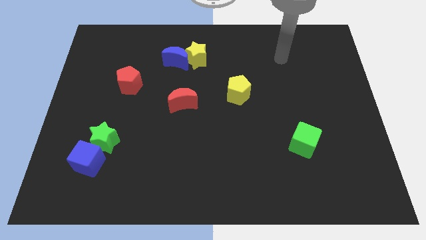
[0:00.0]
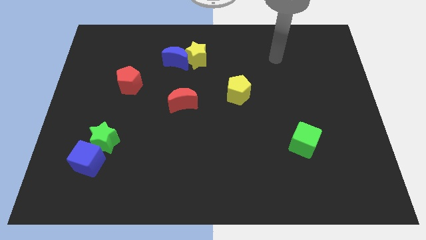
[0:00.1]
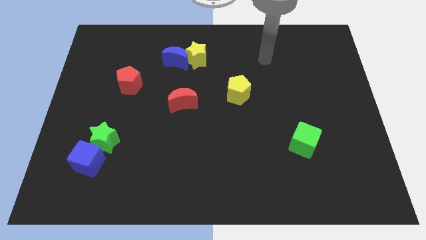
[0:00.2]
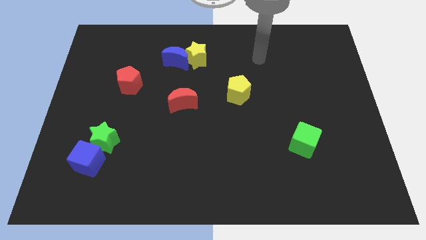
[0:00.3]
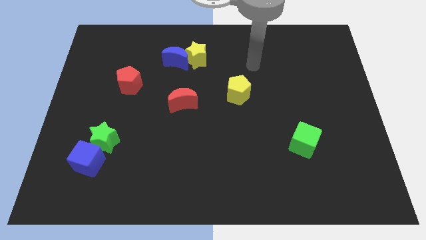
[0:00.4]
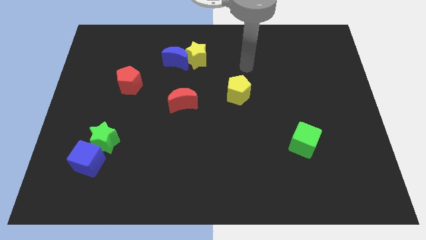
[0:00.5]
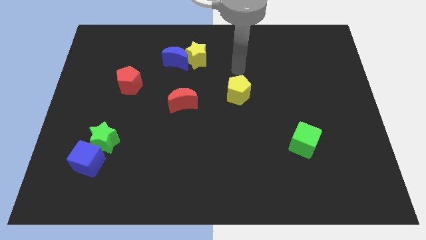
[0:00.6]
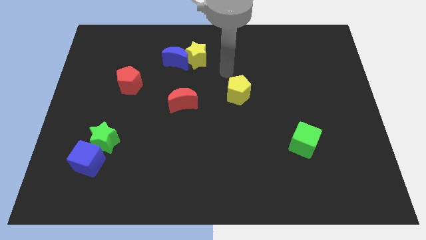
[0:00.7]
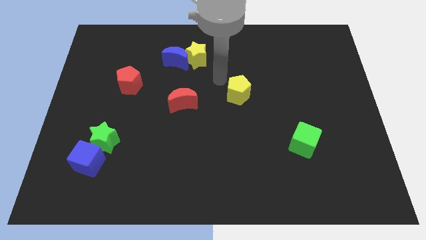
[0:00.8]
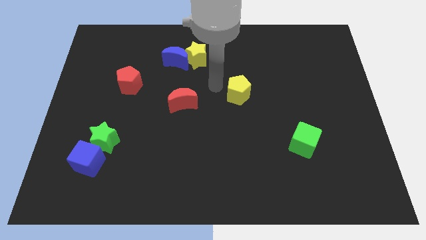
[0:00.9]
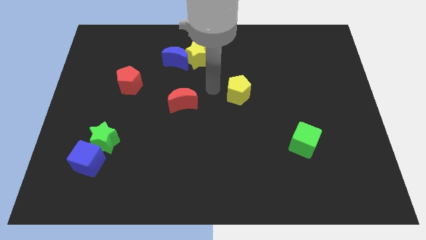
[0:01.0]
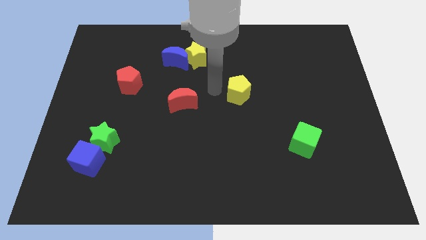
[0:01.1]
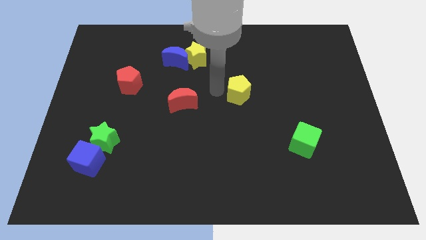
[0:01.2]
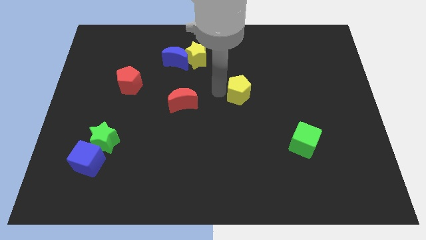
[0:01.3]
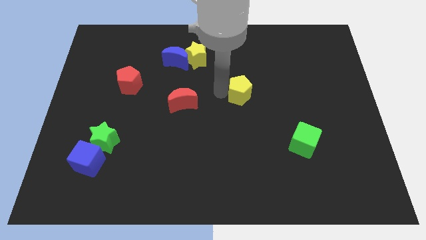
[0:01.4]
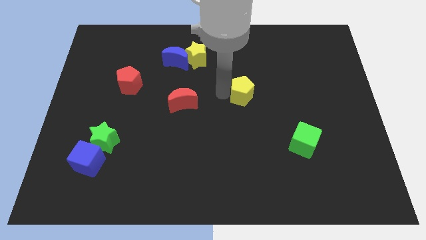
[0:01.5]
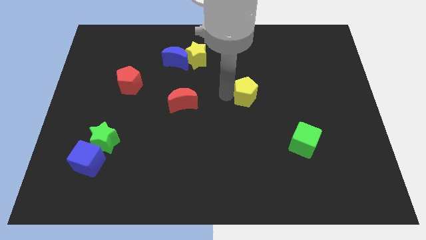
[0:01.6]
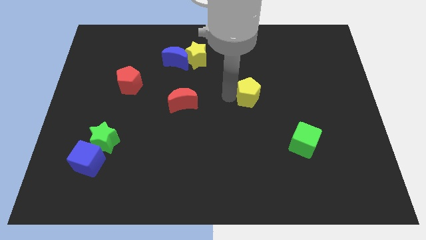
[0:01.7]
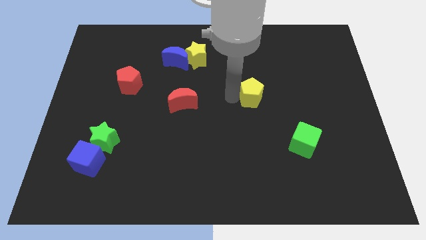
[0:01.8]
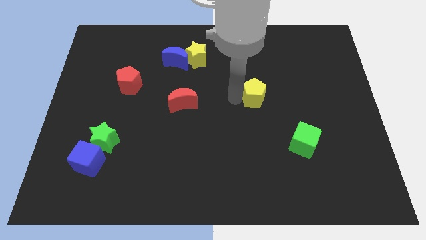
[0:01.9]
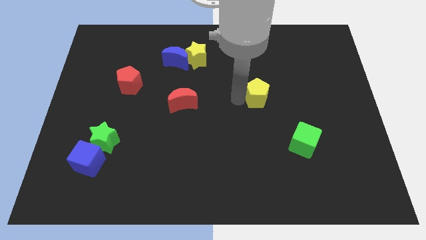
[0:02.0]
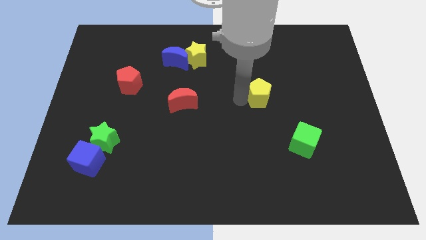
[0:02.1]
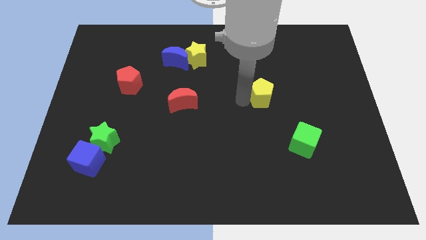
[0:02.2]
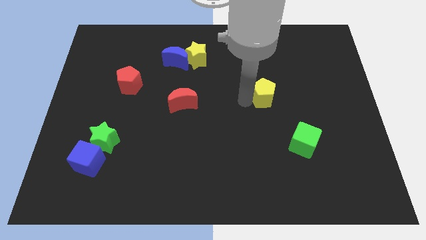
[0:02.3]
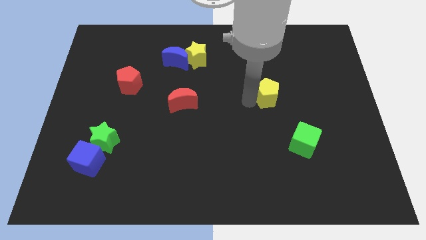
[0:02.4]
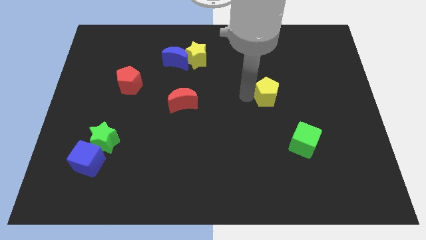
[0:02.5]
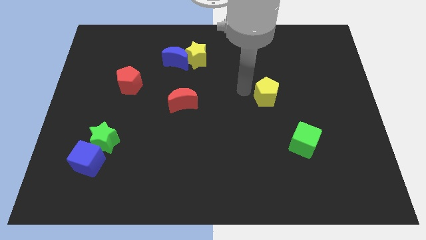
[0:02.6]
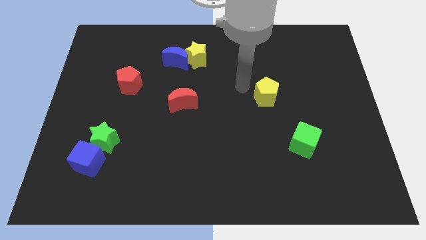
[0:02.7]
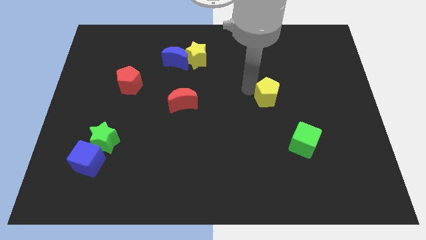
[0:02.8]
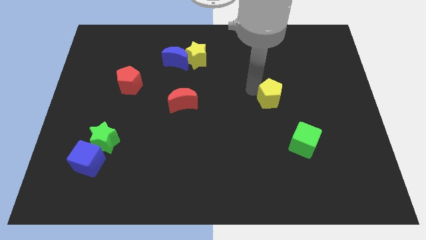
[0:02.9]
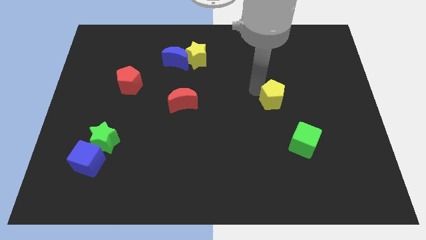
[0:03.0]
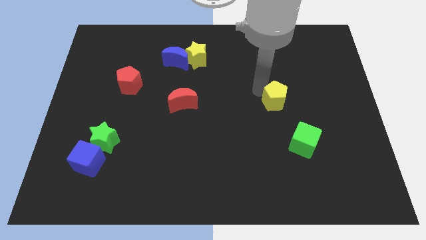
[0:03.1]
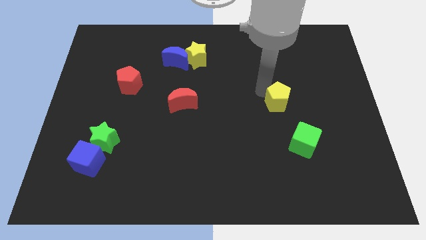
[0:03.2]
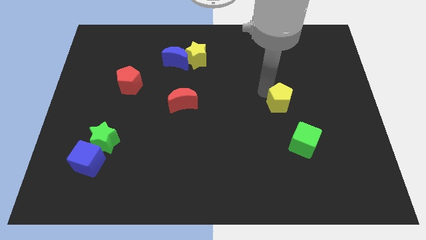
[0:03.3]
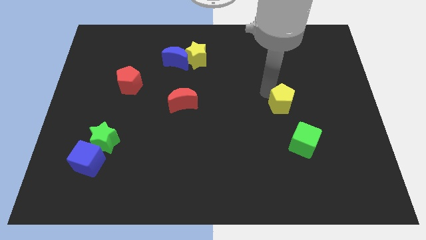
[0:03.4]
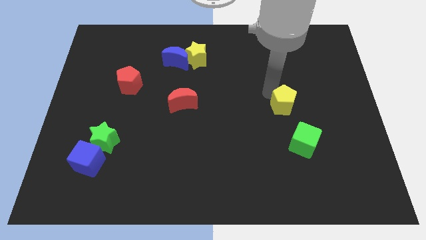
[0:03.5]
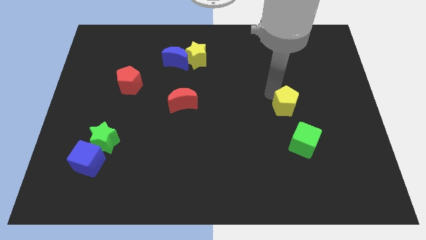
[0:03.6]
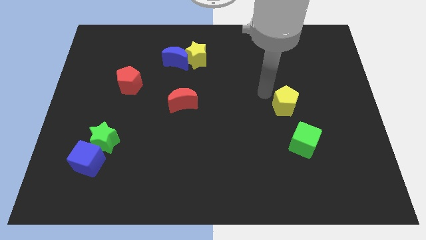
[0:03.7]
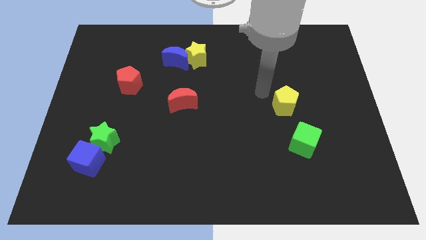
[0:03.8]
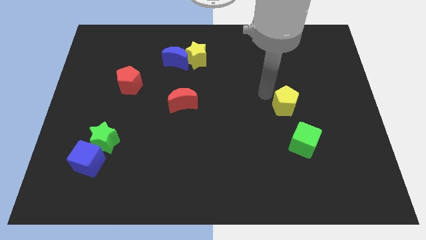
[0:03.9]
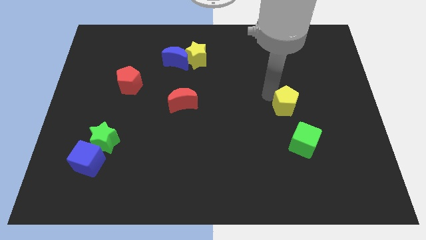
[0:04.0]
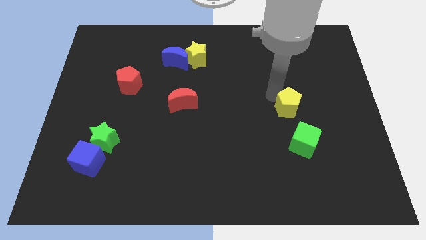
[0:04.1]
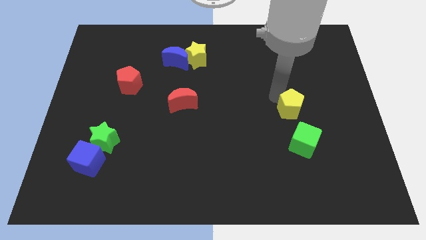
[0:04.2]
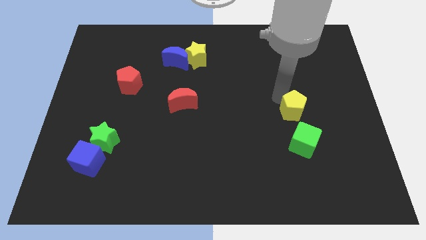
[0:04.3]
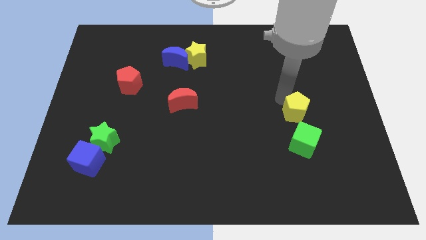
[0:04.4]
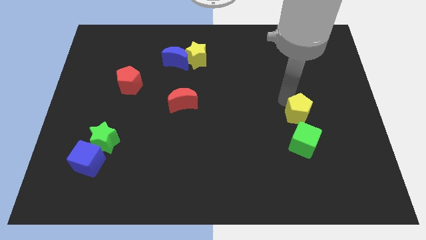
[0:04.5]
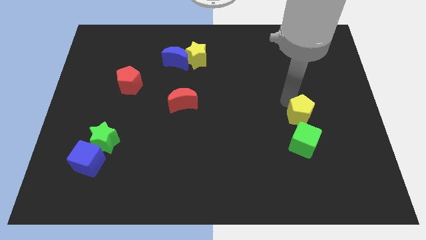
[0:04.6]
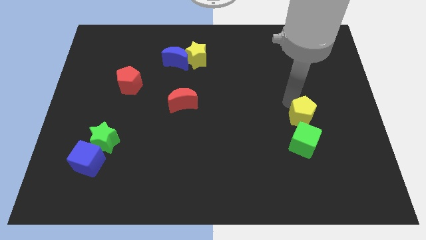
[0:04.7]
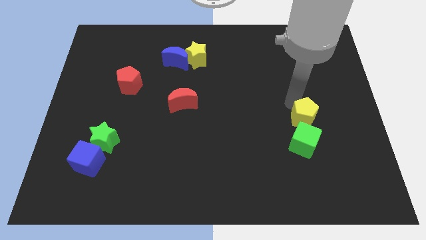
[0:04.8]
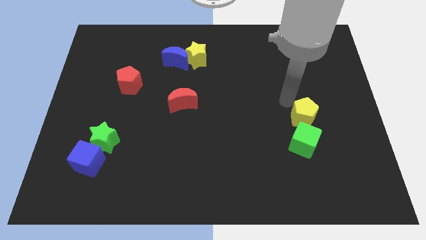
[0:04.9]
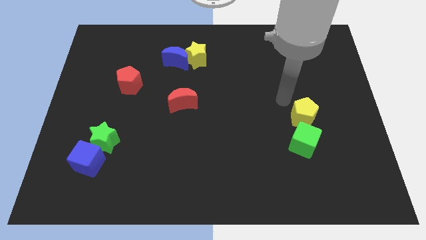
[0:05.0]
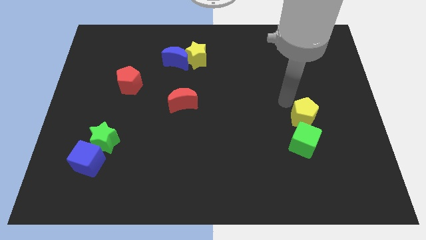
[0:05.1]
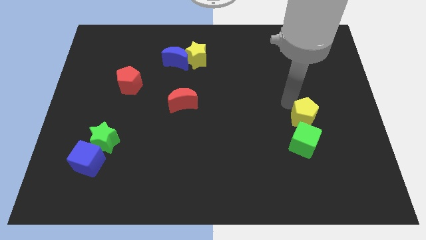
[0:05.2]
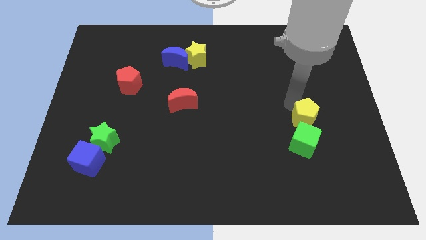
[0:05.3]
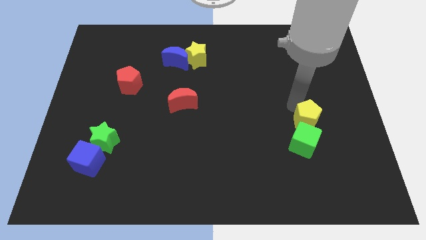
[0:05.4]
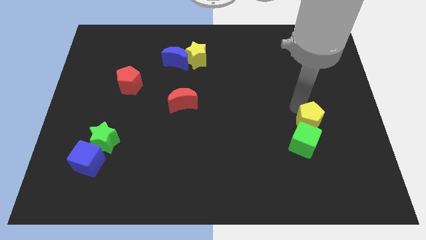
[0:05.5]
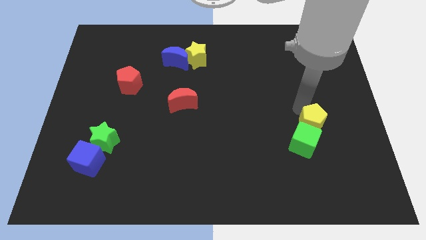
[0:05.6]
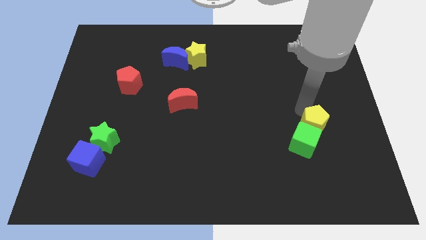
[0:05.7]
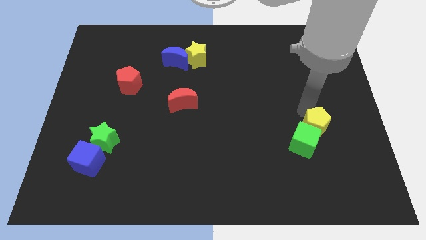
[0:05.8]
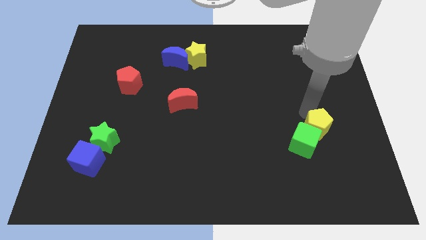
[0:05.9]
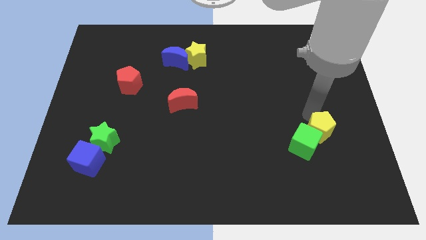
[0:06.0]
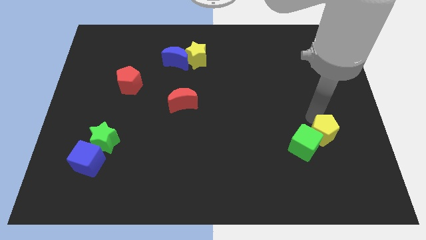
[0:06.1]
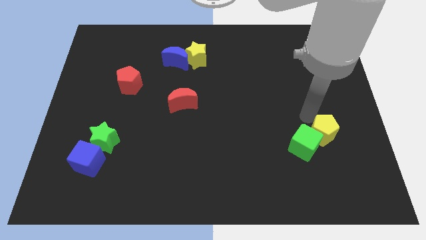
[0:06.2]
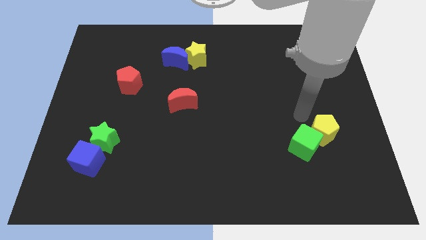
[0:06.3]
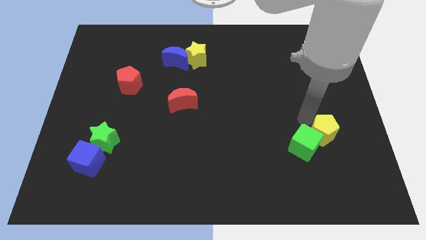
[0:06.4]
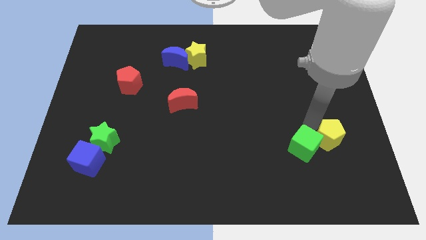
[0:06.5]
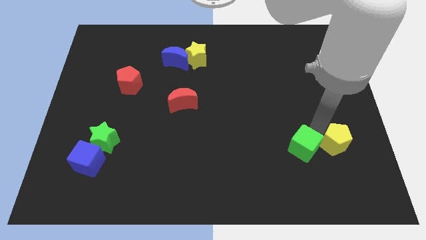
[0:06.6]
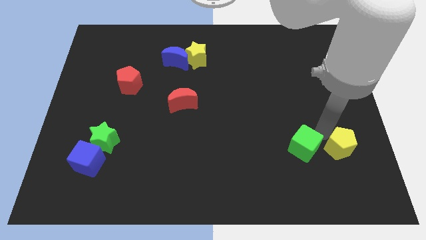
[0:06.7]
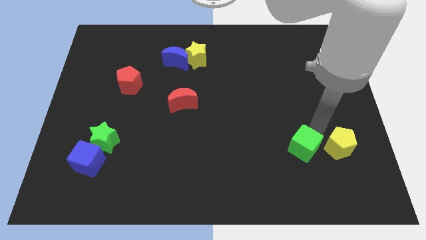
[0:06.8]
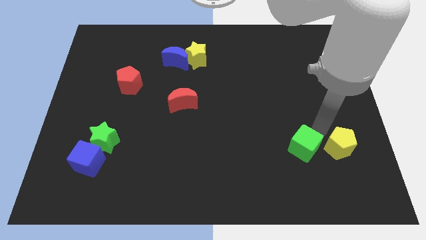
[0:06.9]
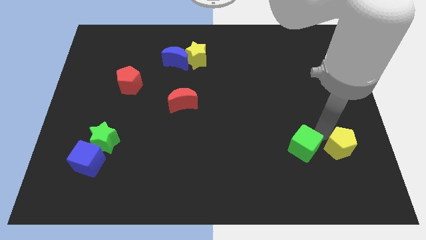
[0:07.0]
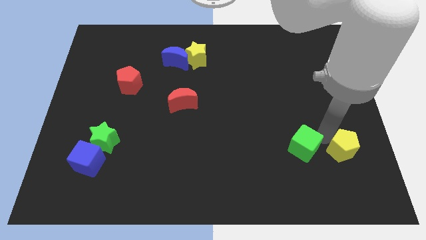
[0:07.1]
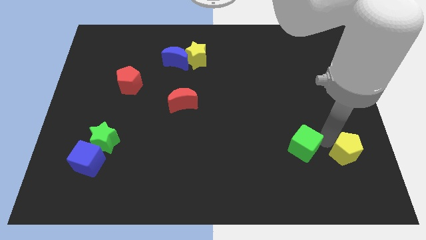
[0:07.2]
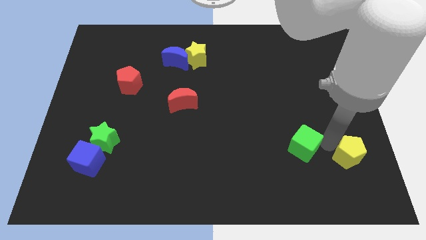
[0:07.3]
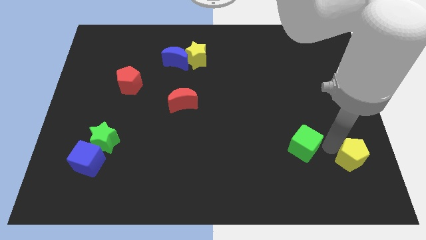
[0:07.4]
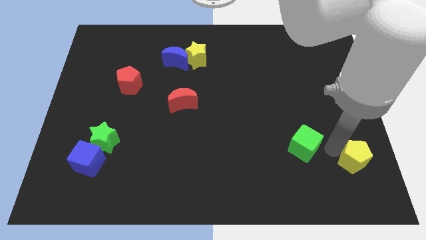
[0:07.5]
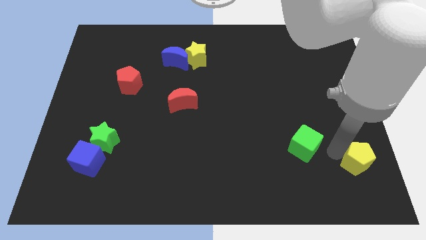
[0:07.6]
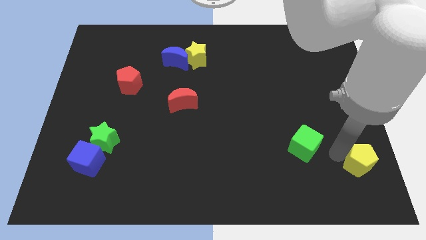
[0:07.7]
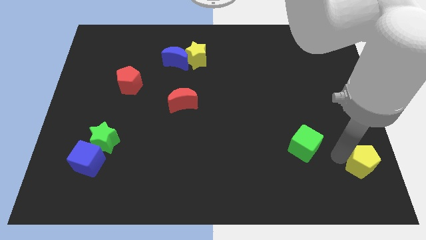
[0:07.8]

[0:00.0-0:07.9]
push the yellow pentagon to the lower right corner
